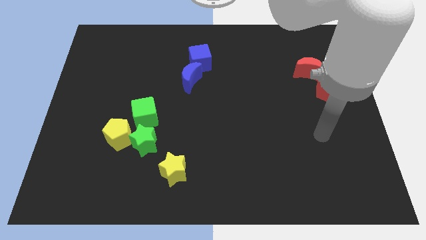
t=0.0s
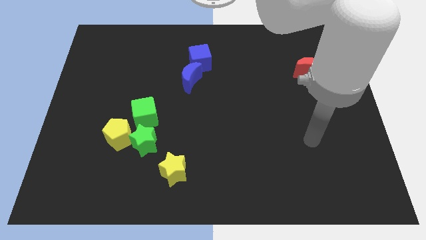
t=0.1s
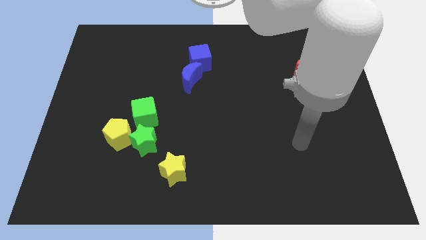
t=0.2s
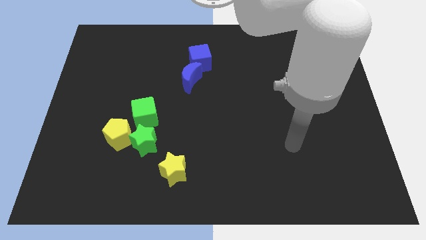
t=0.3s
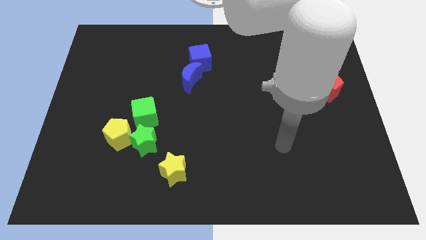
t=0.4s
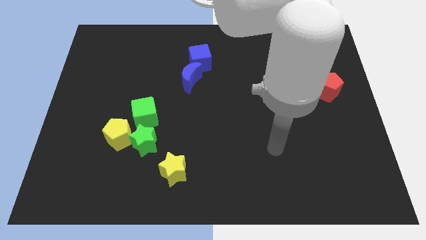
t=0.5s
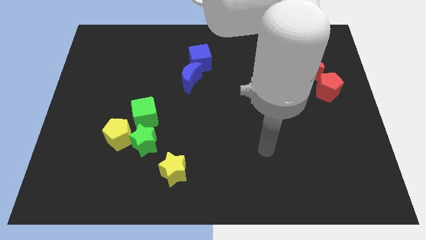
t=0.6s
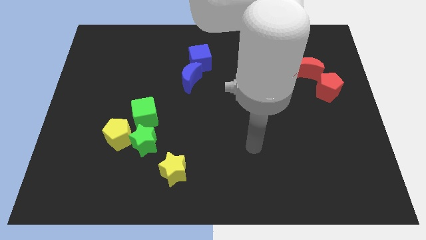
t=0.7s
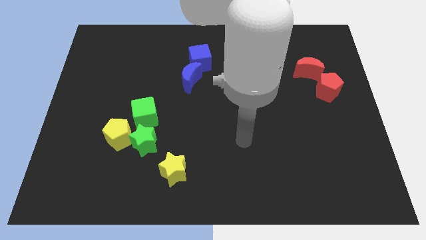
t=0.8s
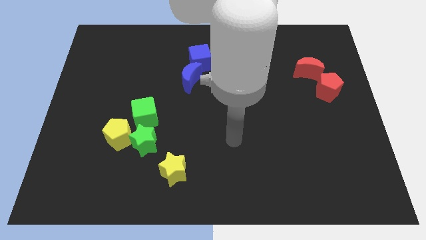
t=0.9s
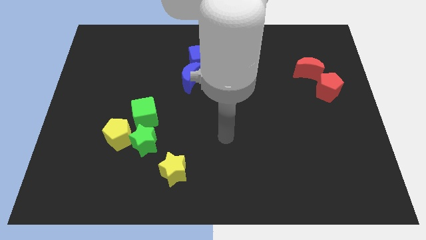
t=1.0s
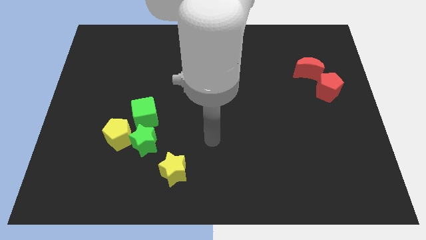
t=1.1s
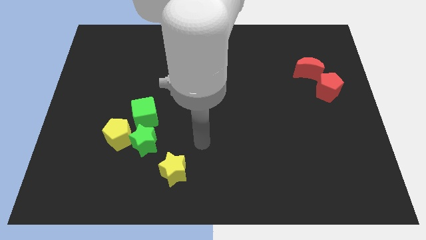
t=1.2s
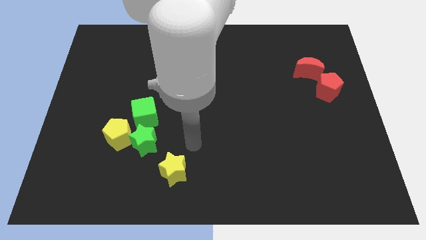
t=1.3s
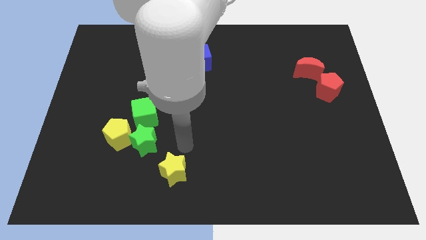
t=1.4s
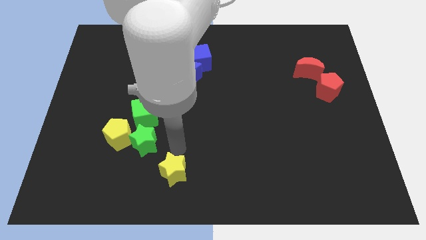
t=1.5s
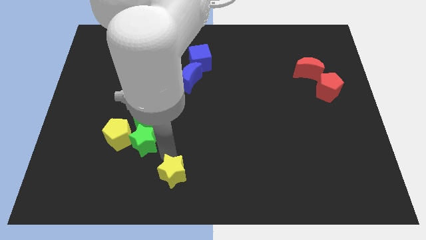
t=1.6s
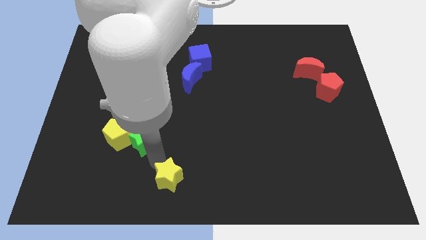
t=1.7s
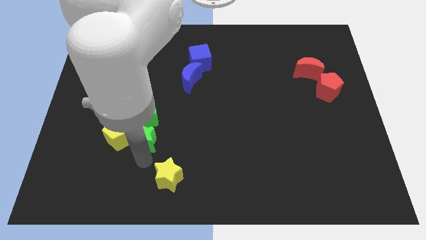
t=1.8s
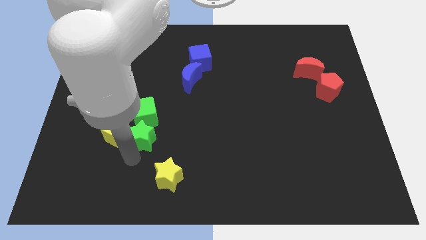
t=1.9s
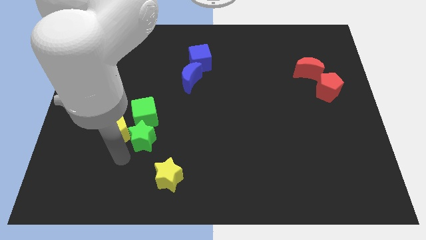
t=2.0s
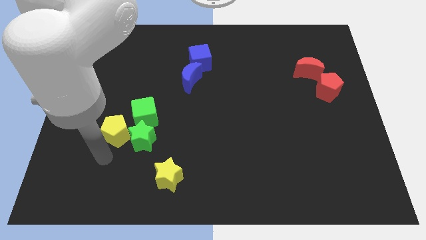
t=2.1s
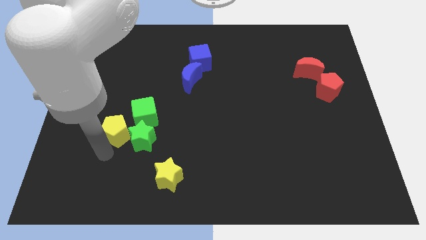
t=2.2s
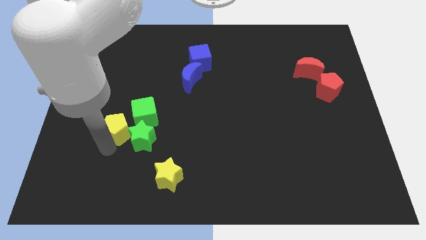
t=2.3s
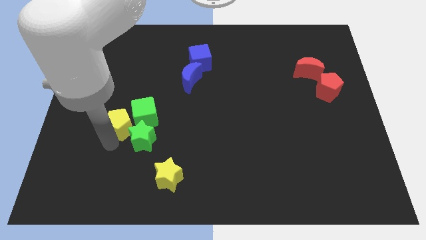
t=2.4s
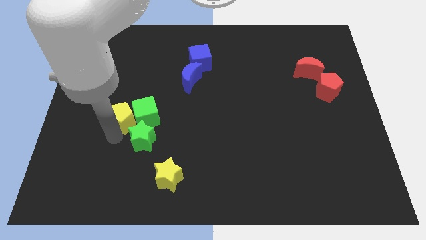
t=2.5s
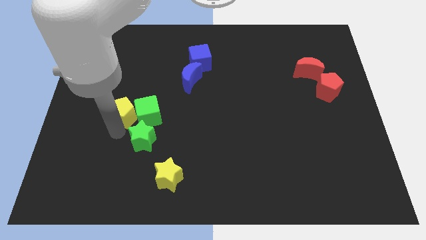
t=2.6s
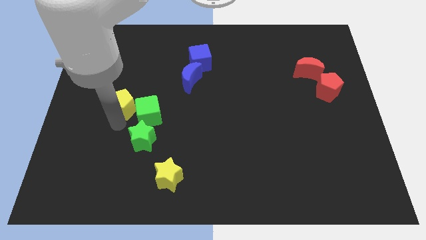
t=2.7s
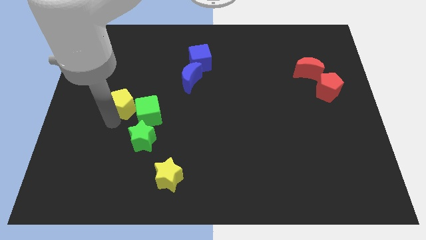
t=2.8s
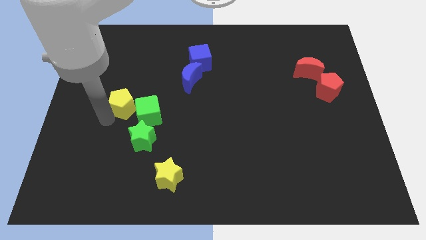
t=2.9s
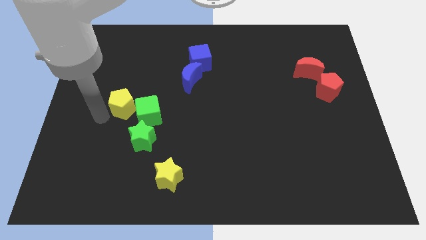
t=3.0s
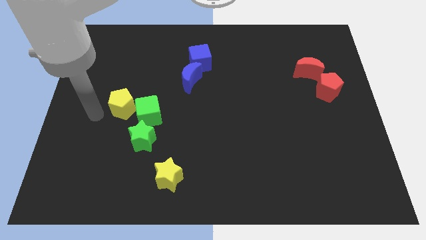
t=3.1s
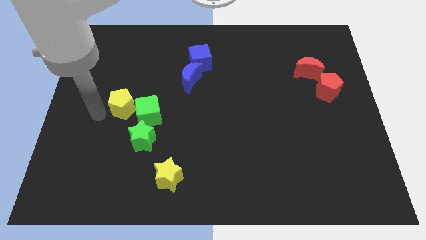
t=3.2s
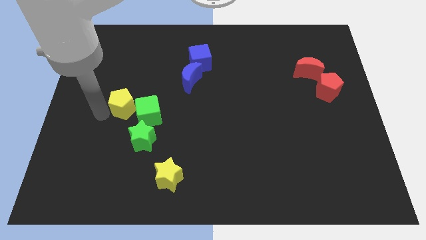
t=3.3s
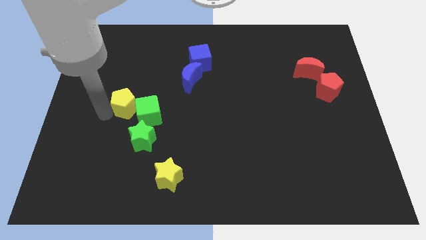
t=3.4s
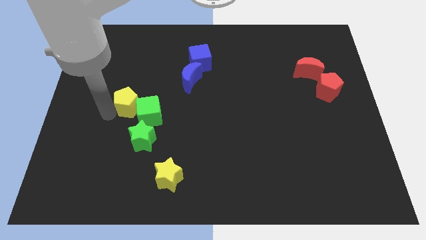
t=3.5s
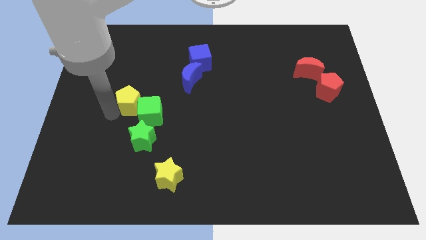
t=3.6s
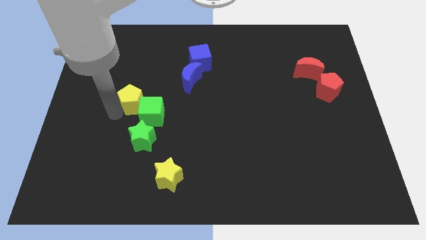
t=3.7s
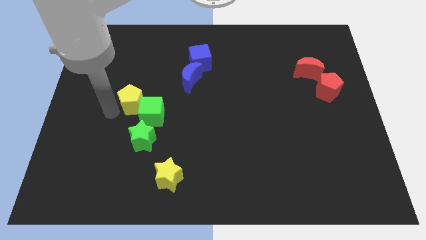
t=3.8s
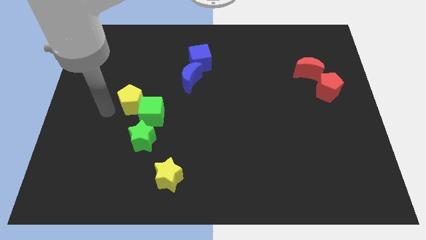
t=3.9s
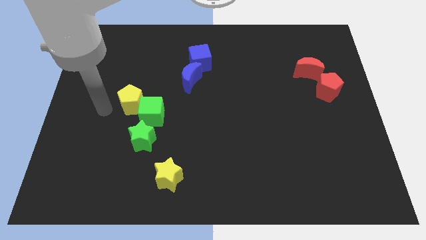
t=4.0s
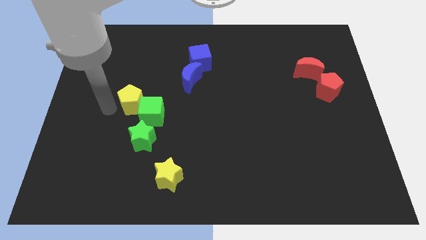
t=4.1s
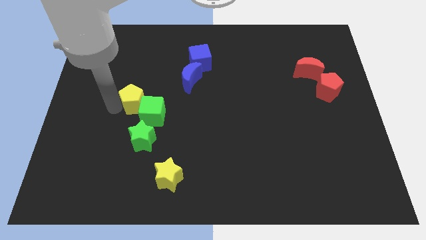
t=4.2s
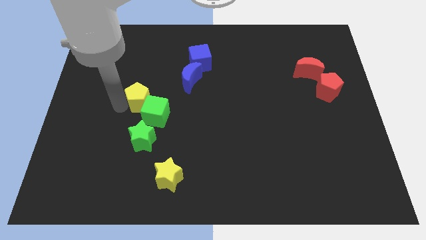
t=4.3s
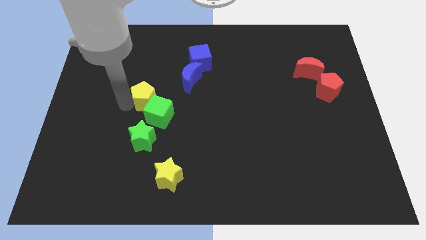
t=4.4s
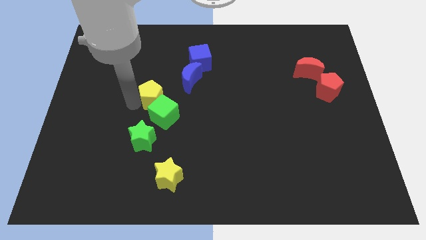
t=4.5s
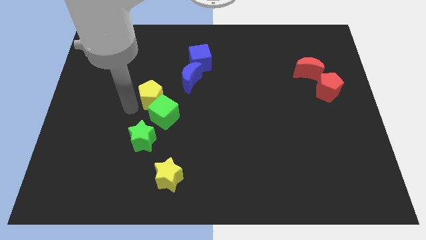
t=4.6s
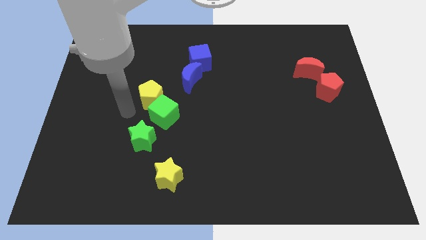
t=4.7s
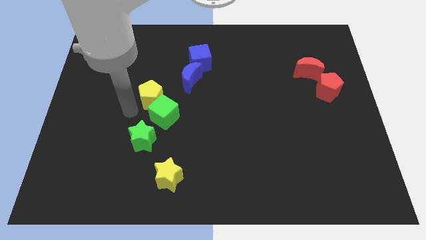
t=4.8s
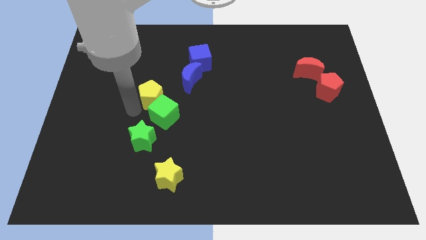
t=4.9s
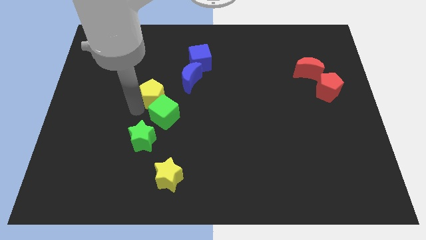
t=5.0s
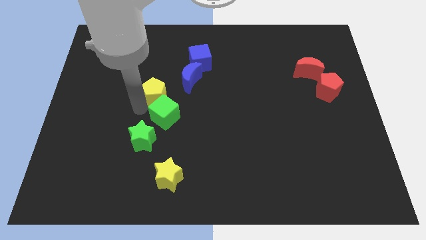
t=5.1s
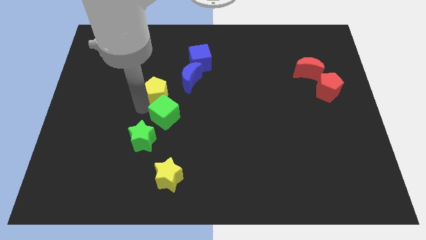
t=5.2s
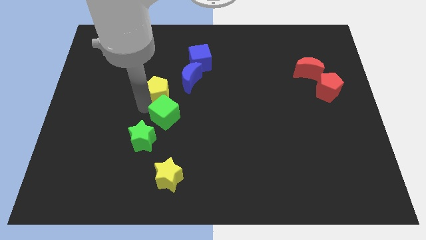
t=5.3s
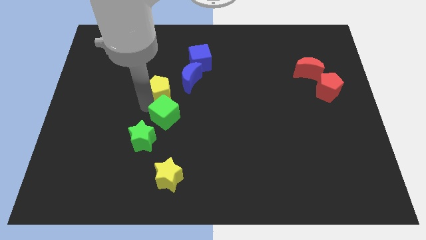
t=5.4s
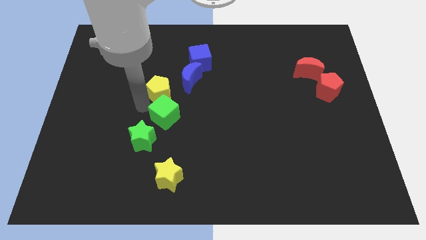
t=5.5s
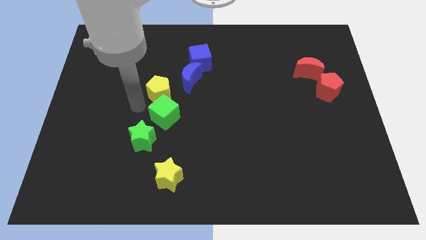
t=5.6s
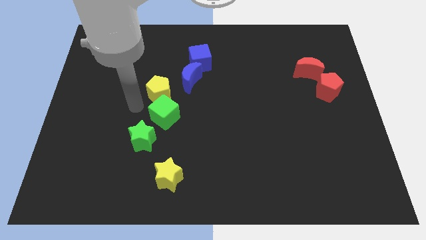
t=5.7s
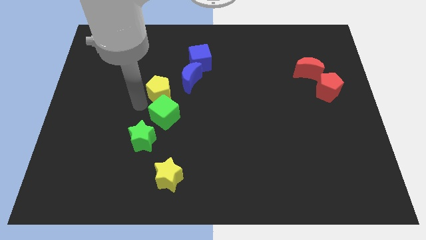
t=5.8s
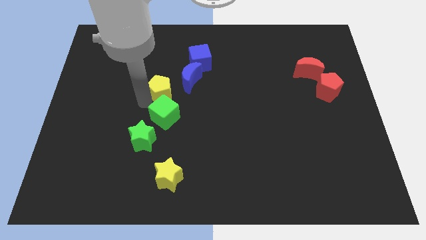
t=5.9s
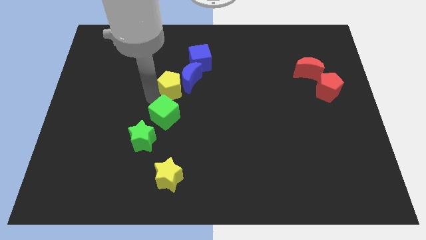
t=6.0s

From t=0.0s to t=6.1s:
slide the yellow pentagon towards the blue moon

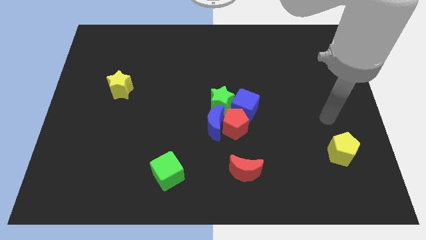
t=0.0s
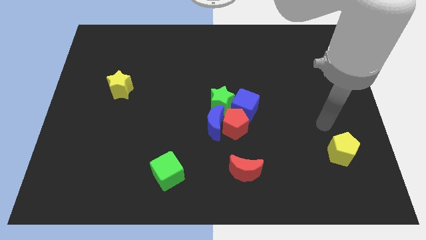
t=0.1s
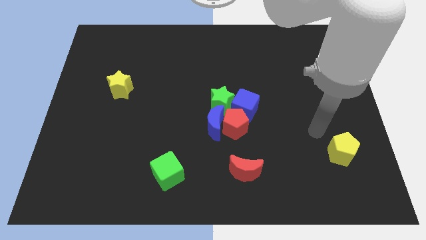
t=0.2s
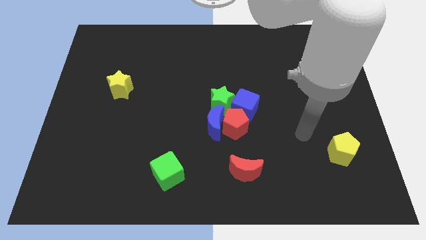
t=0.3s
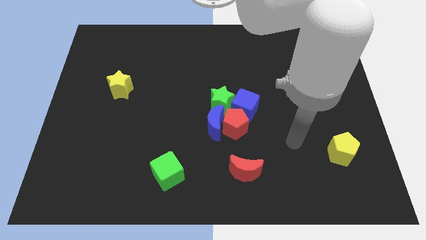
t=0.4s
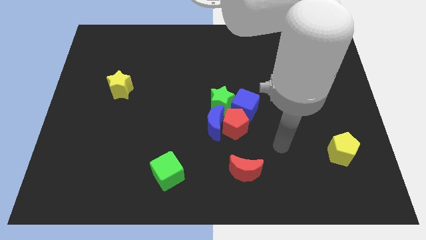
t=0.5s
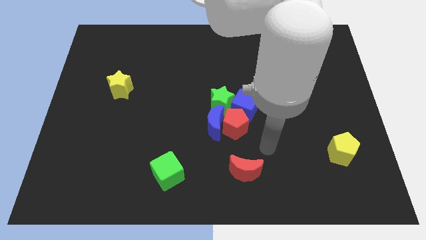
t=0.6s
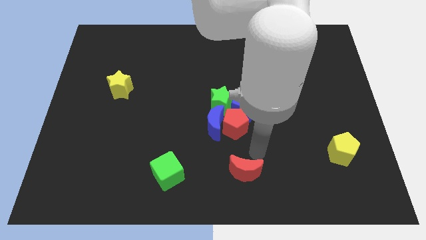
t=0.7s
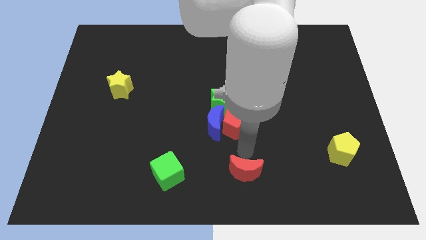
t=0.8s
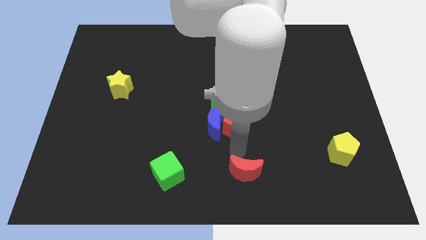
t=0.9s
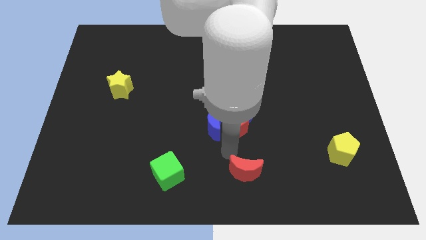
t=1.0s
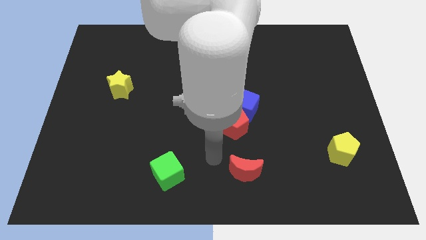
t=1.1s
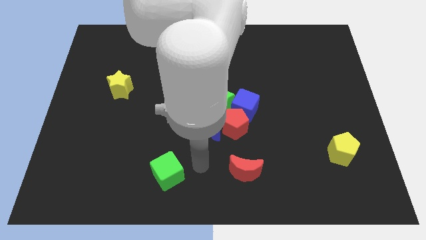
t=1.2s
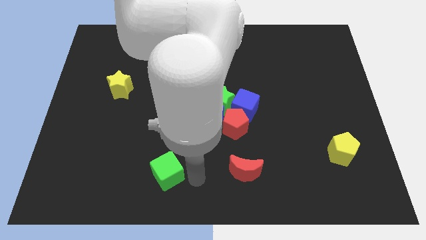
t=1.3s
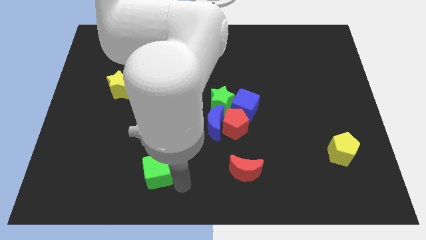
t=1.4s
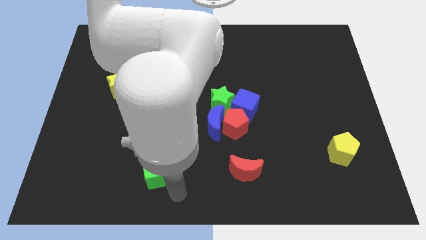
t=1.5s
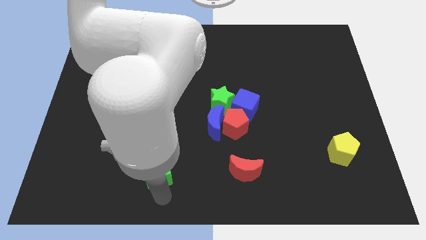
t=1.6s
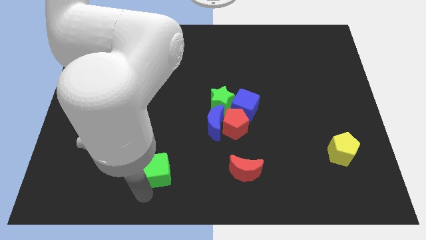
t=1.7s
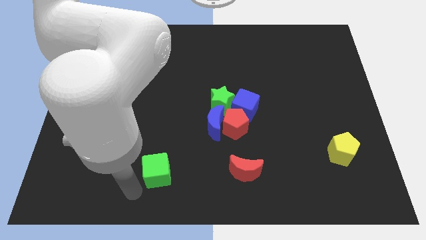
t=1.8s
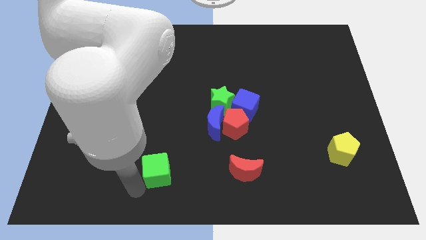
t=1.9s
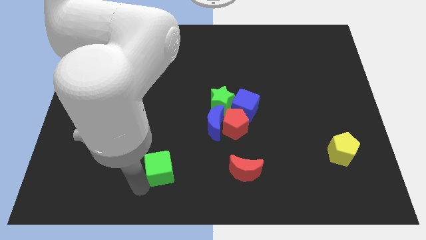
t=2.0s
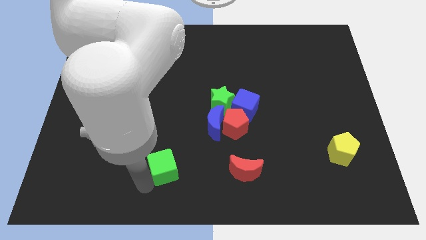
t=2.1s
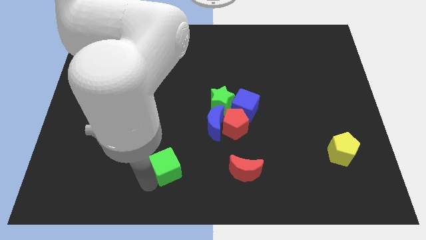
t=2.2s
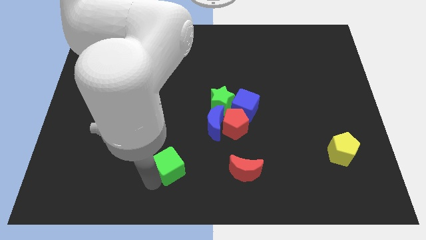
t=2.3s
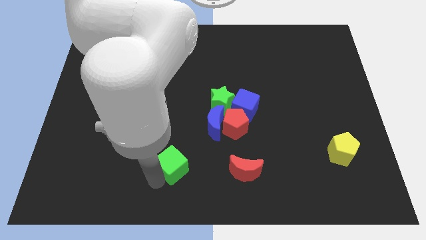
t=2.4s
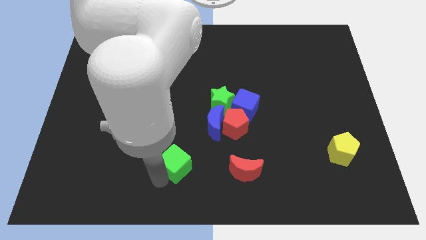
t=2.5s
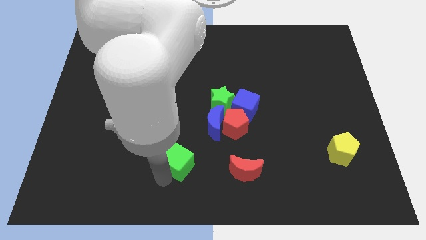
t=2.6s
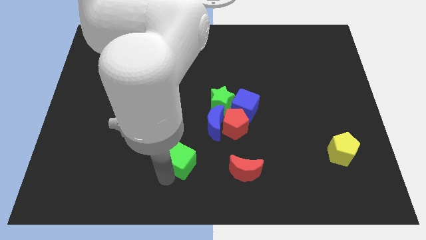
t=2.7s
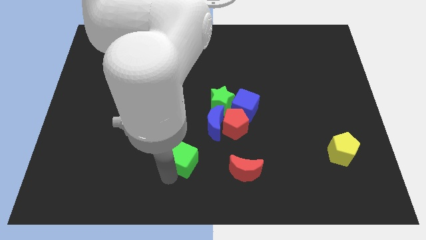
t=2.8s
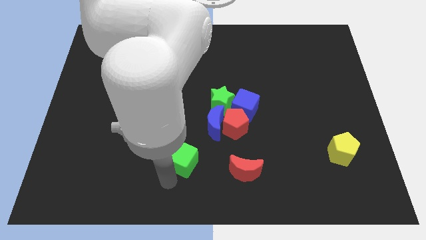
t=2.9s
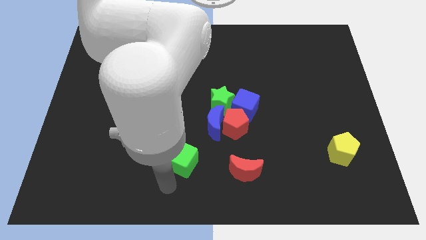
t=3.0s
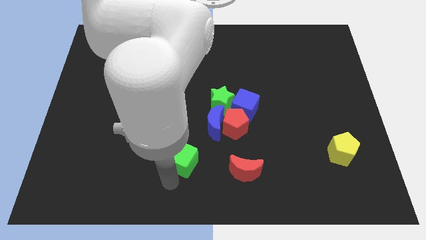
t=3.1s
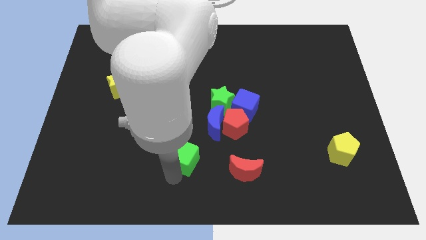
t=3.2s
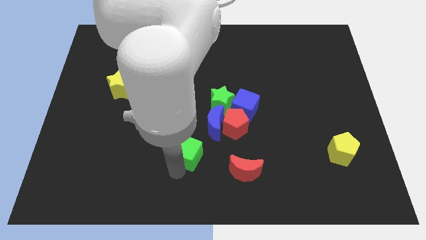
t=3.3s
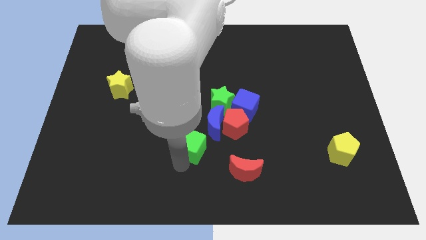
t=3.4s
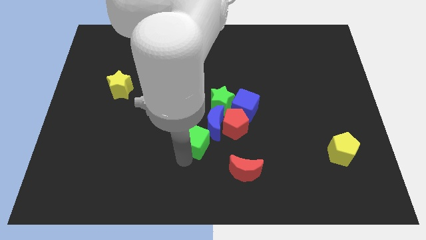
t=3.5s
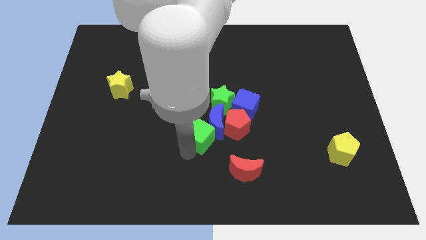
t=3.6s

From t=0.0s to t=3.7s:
move the green cube close to the blue moon
